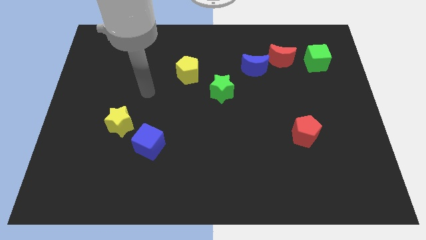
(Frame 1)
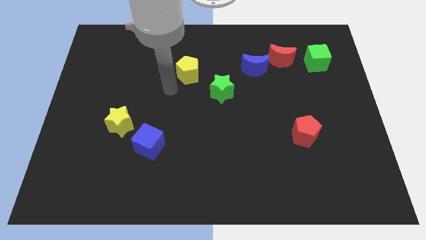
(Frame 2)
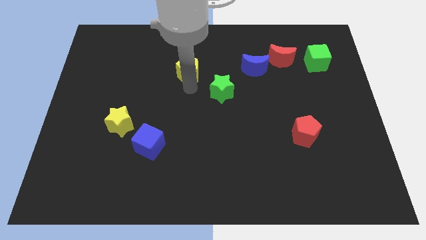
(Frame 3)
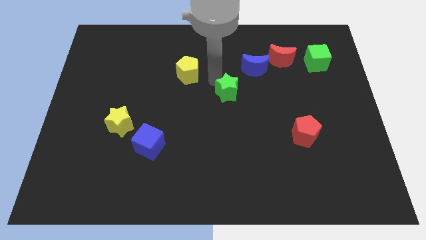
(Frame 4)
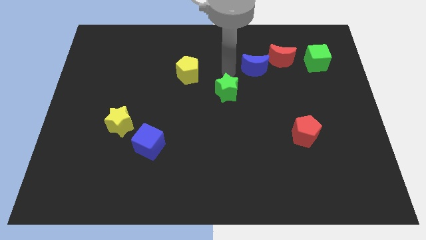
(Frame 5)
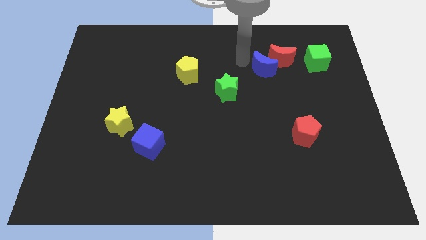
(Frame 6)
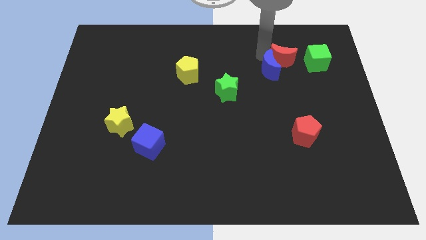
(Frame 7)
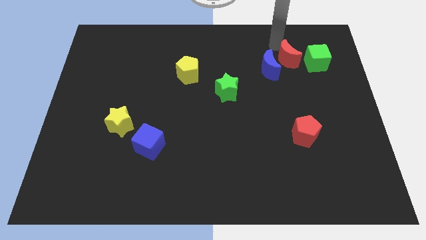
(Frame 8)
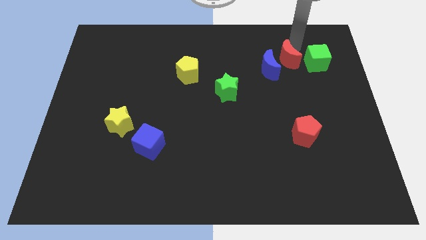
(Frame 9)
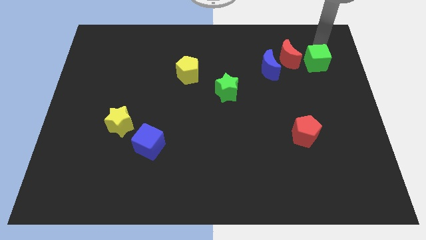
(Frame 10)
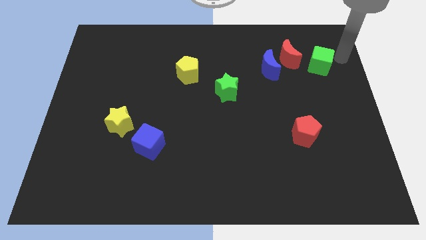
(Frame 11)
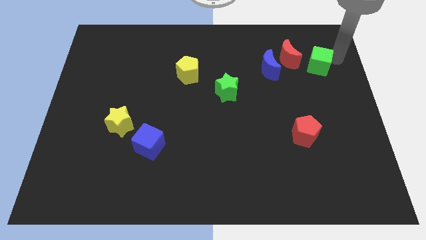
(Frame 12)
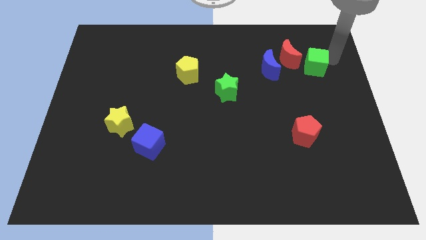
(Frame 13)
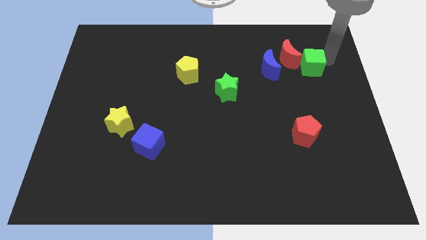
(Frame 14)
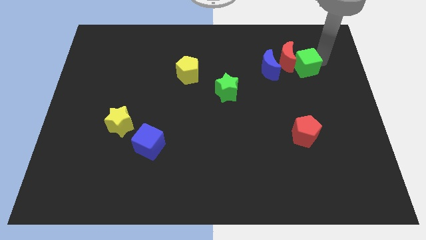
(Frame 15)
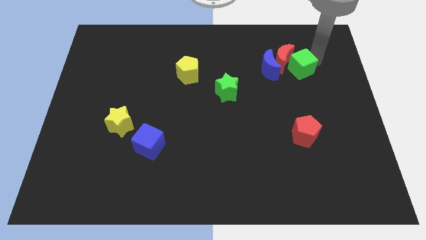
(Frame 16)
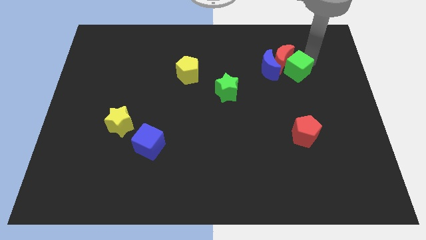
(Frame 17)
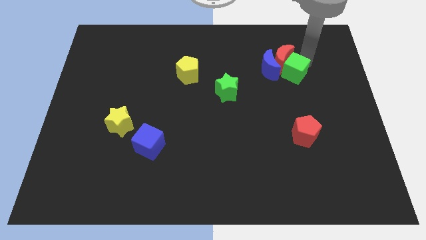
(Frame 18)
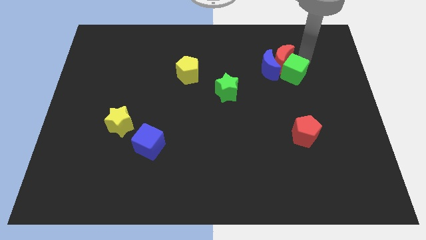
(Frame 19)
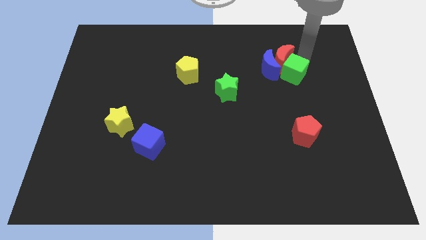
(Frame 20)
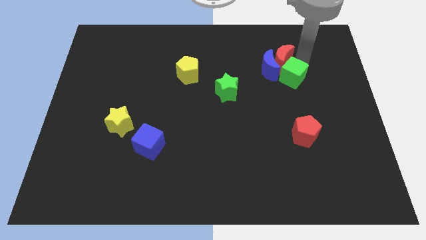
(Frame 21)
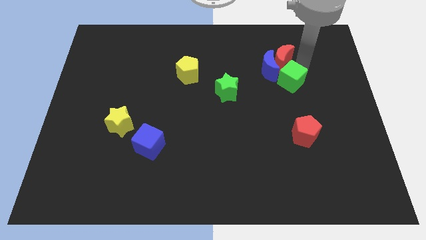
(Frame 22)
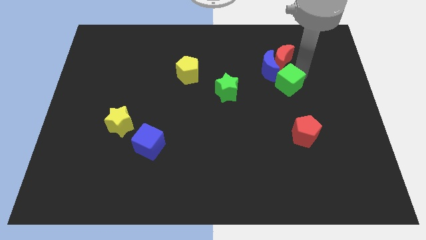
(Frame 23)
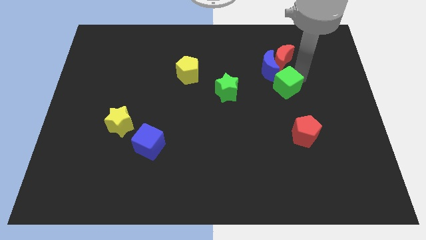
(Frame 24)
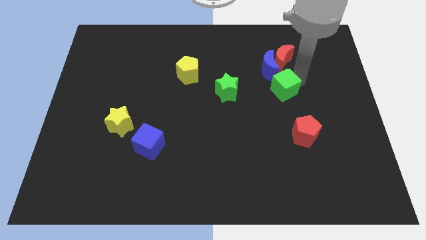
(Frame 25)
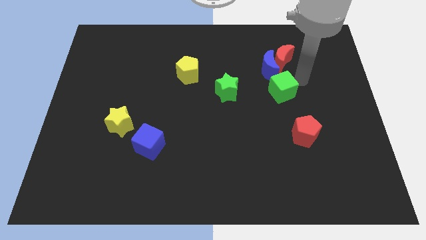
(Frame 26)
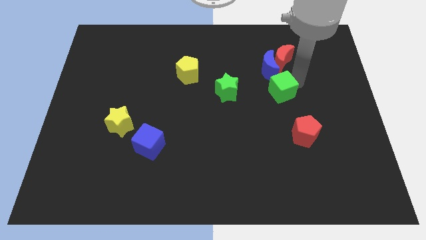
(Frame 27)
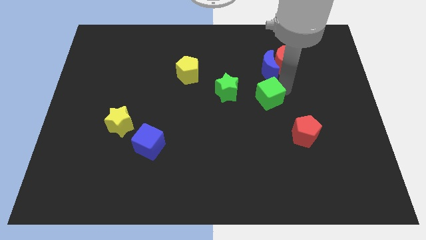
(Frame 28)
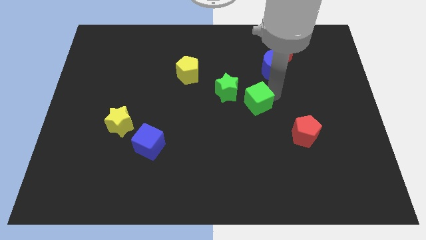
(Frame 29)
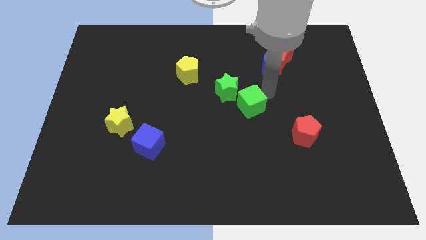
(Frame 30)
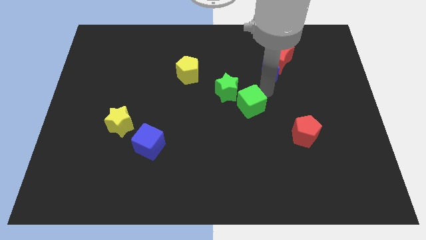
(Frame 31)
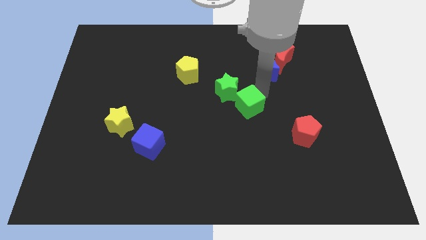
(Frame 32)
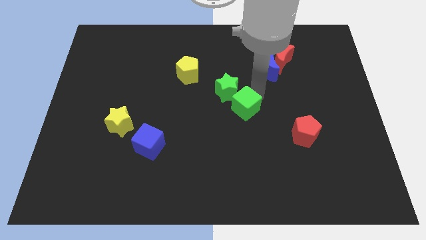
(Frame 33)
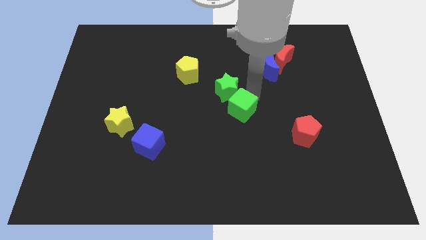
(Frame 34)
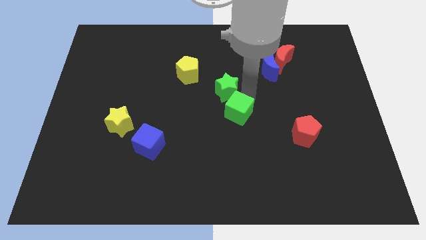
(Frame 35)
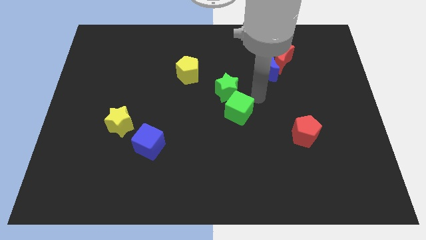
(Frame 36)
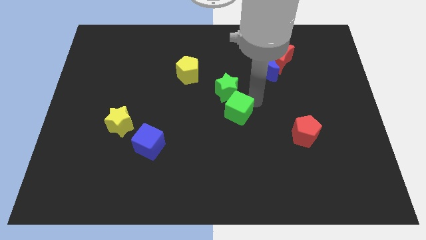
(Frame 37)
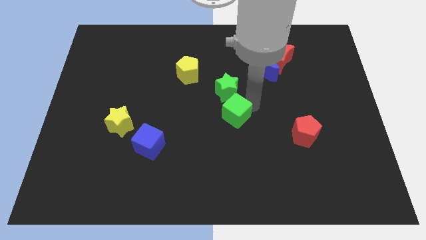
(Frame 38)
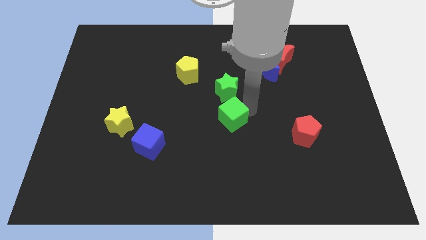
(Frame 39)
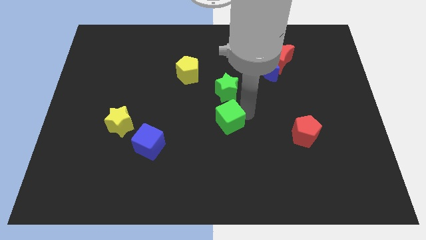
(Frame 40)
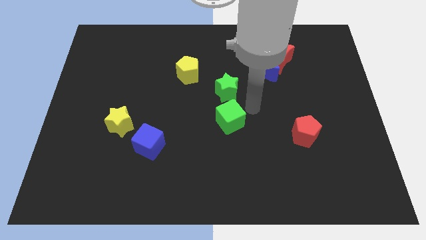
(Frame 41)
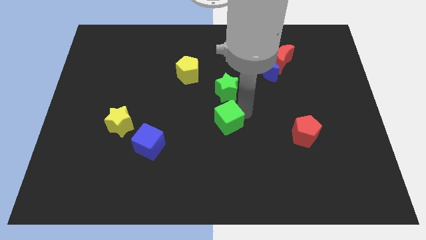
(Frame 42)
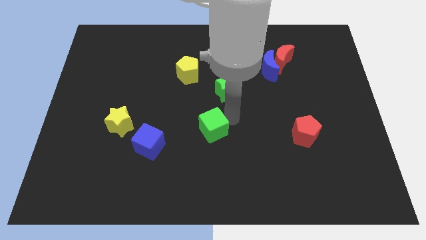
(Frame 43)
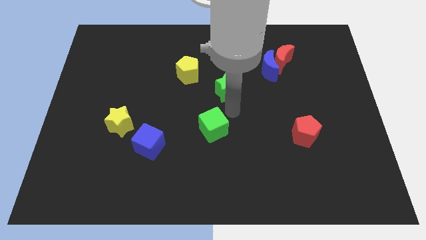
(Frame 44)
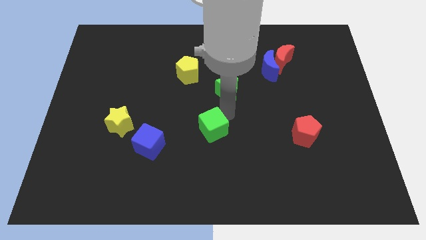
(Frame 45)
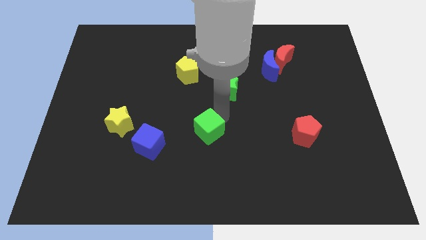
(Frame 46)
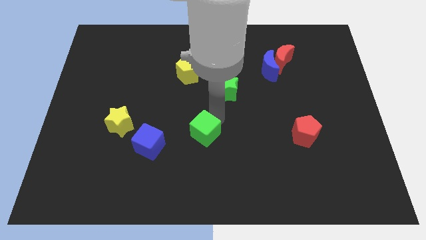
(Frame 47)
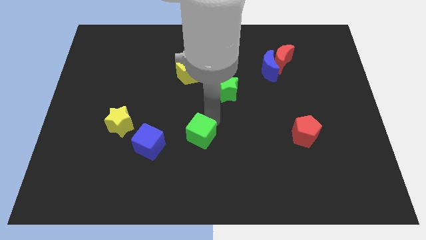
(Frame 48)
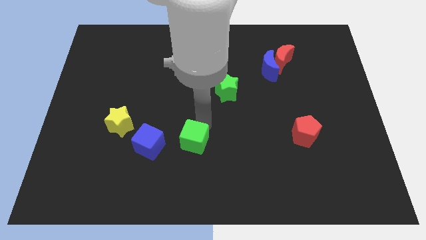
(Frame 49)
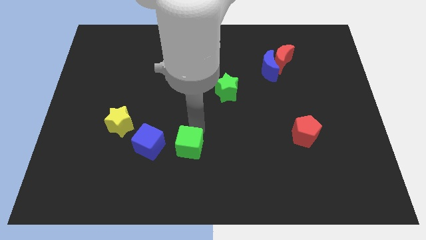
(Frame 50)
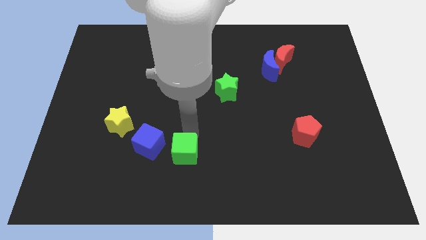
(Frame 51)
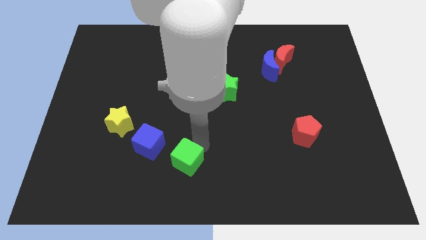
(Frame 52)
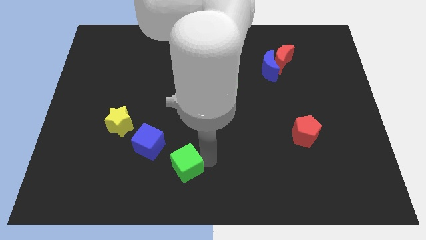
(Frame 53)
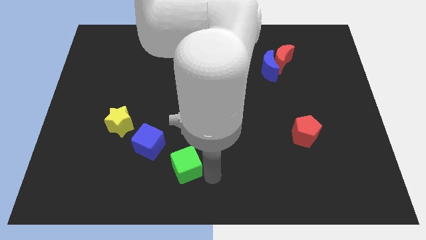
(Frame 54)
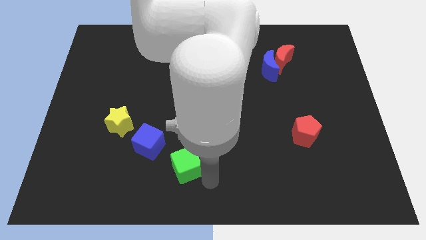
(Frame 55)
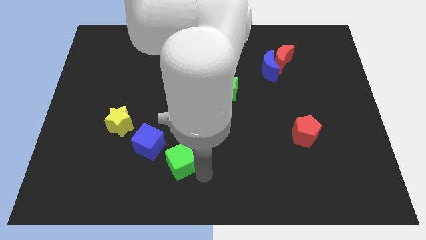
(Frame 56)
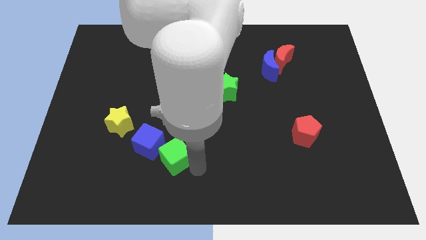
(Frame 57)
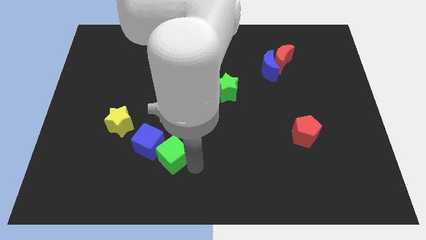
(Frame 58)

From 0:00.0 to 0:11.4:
move the green cube towards the blue cube

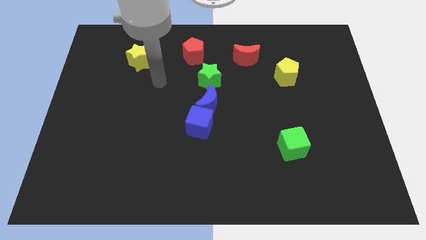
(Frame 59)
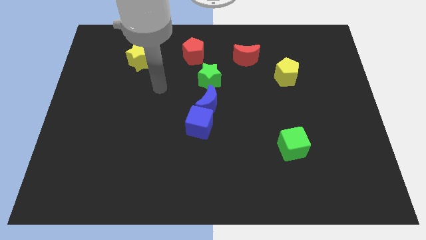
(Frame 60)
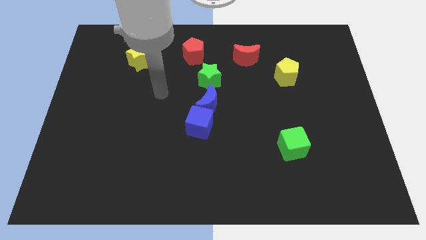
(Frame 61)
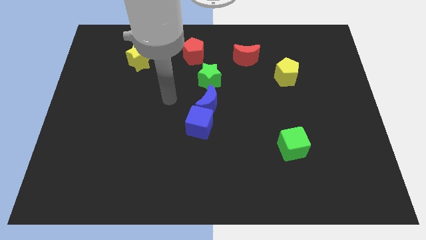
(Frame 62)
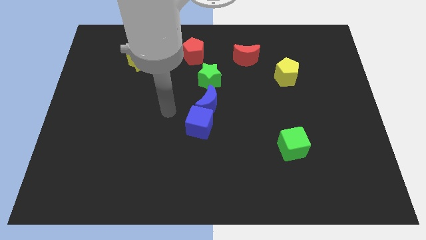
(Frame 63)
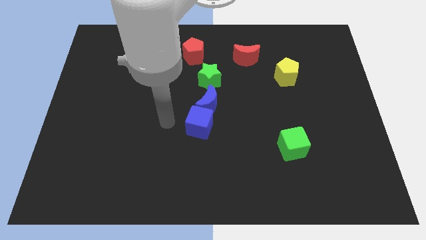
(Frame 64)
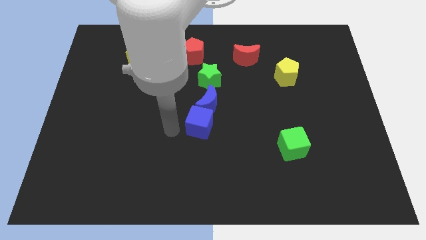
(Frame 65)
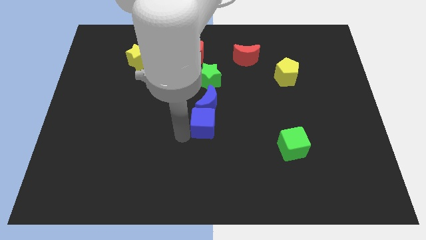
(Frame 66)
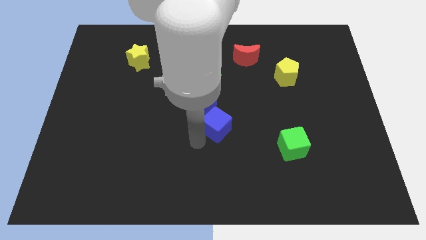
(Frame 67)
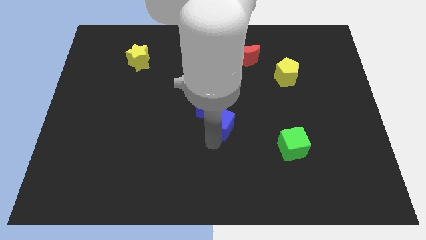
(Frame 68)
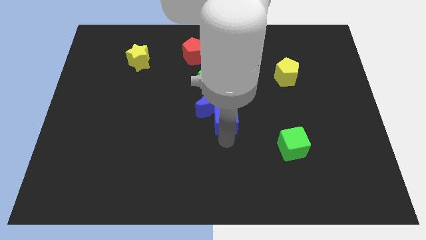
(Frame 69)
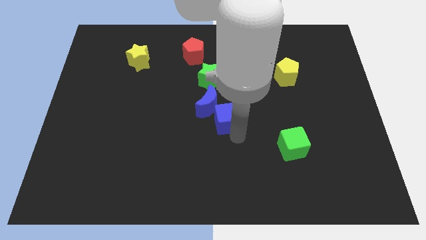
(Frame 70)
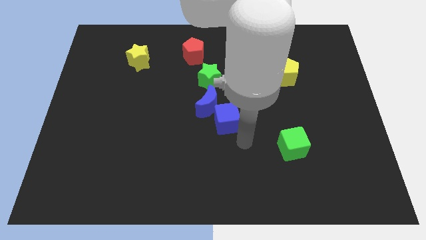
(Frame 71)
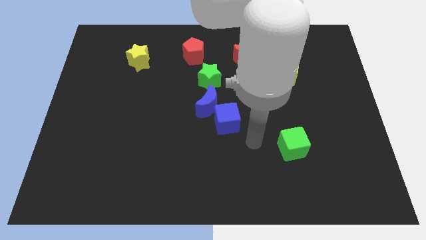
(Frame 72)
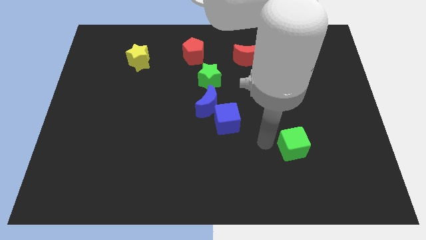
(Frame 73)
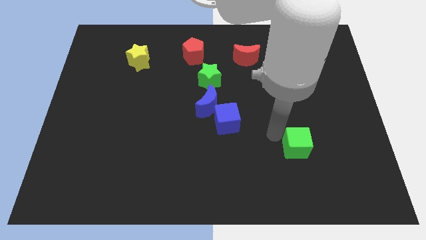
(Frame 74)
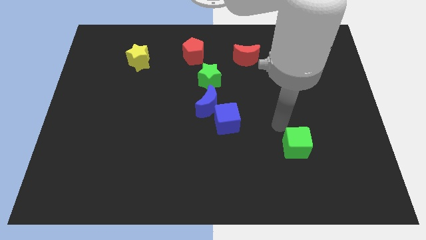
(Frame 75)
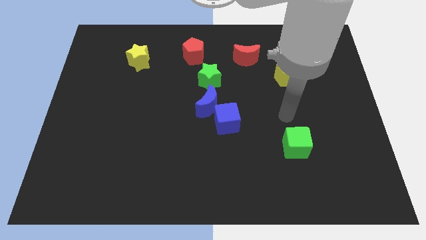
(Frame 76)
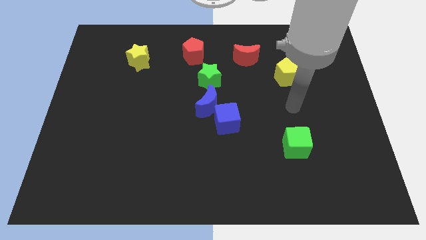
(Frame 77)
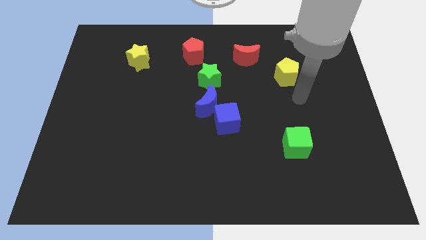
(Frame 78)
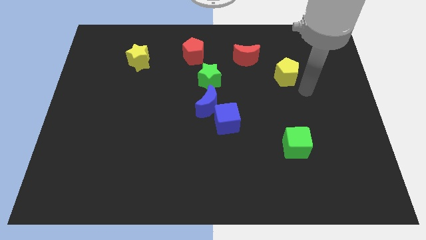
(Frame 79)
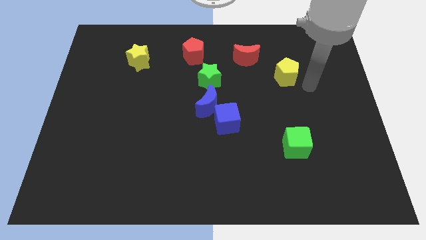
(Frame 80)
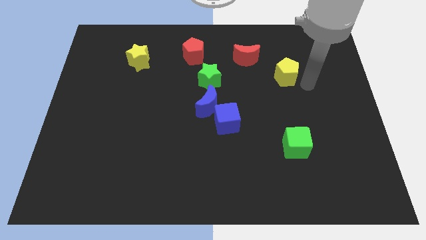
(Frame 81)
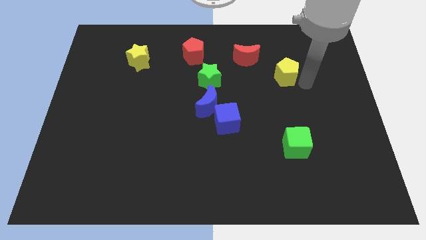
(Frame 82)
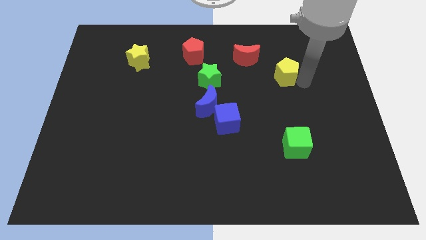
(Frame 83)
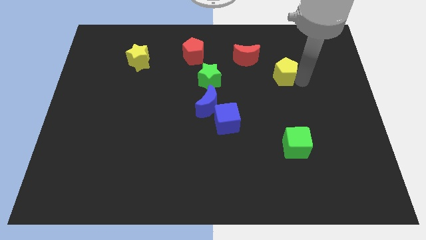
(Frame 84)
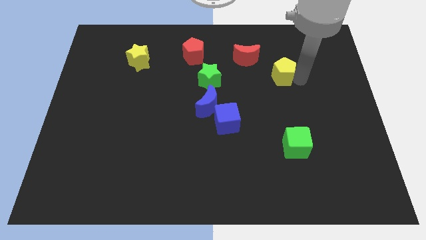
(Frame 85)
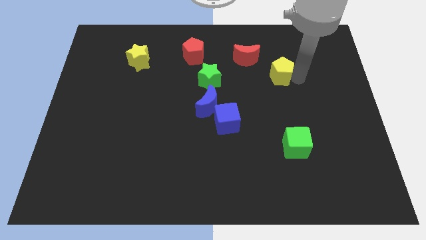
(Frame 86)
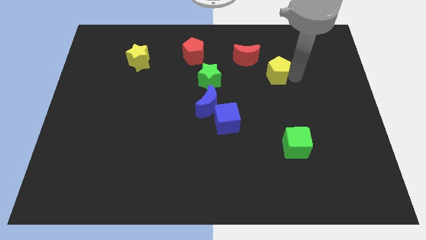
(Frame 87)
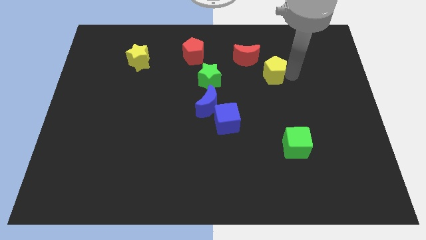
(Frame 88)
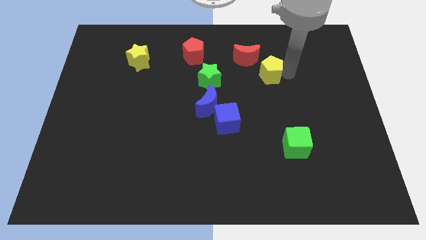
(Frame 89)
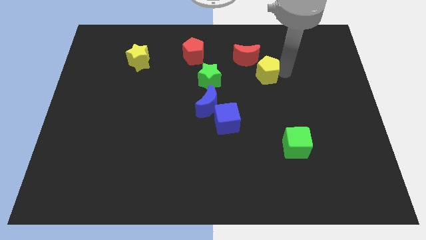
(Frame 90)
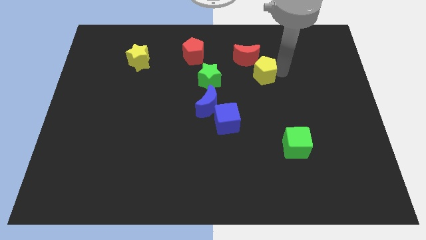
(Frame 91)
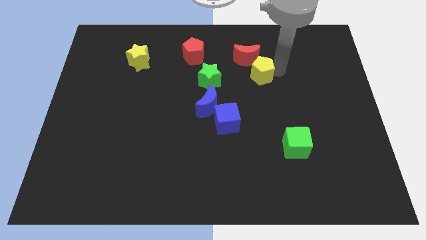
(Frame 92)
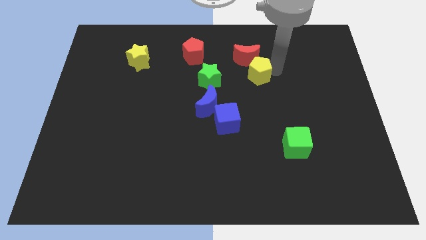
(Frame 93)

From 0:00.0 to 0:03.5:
push the yellow pentagon to the red moon
